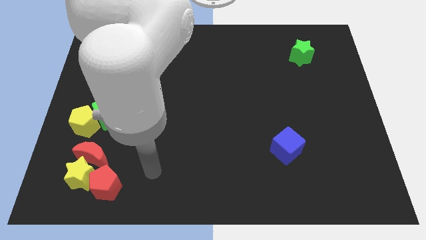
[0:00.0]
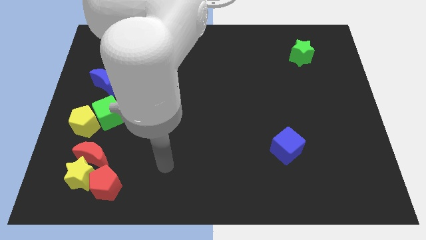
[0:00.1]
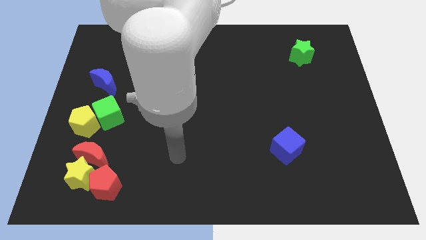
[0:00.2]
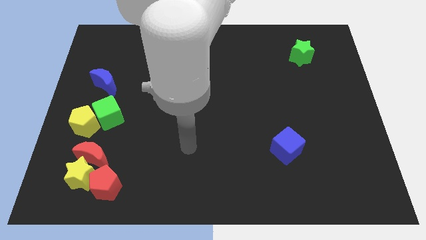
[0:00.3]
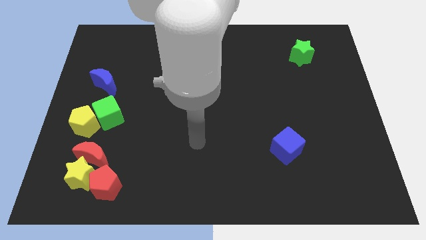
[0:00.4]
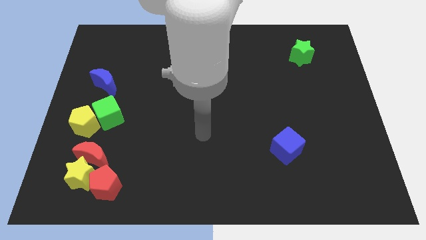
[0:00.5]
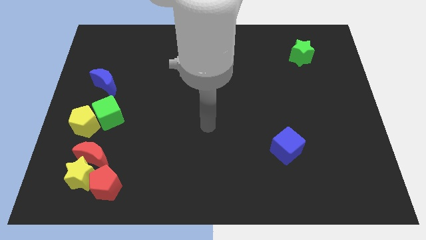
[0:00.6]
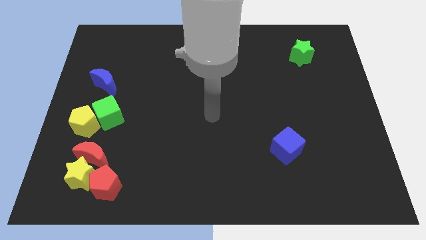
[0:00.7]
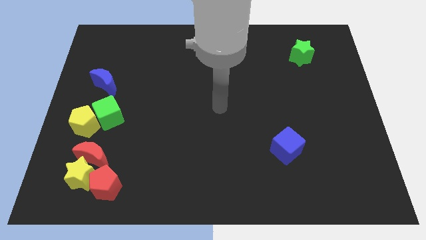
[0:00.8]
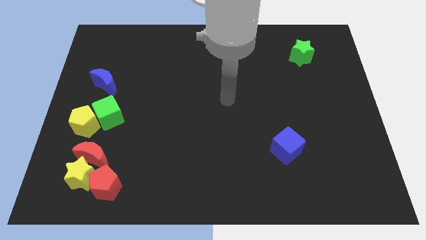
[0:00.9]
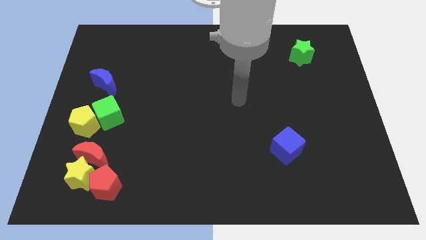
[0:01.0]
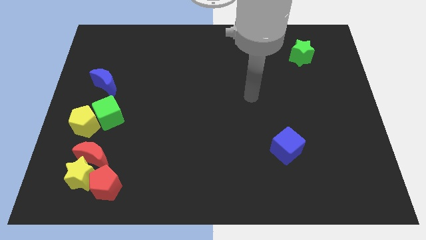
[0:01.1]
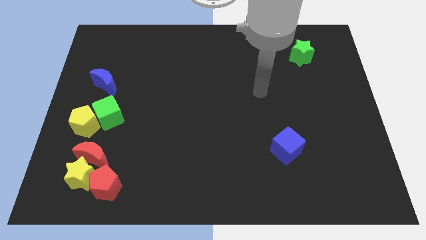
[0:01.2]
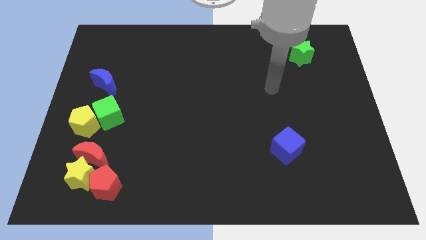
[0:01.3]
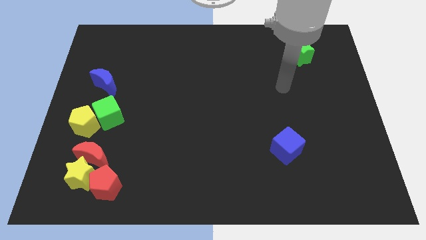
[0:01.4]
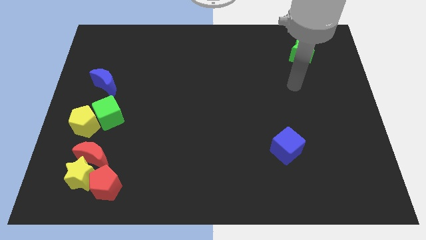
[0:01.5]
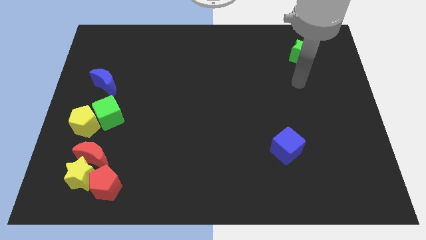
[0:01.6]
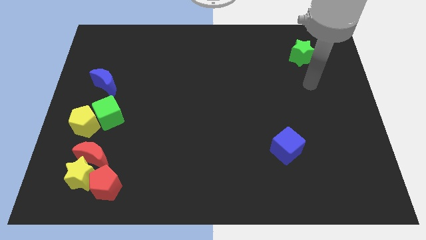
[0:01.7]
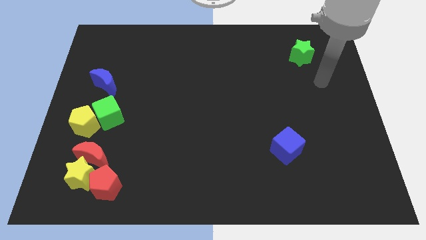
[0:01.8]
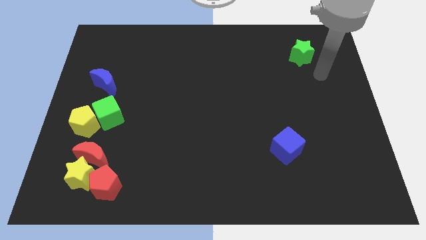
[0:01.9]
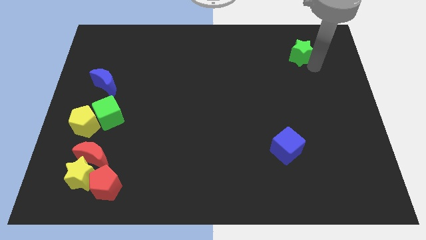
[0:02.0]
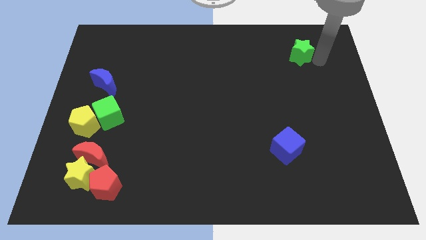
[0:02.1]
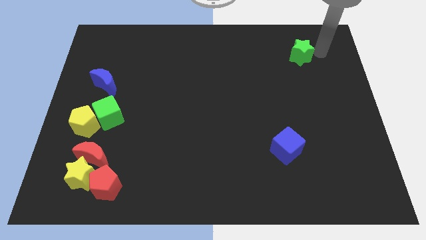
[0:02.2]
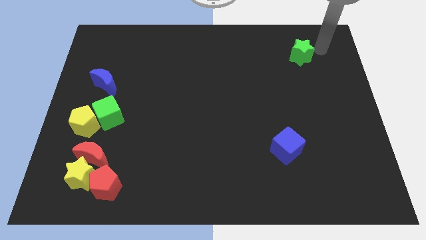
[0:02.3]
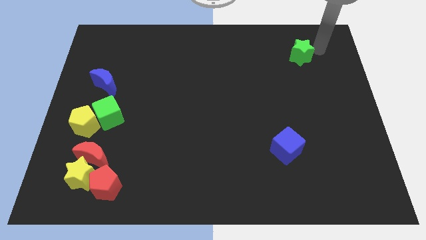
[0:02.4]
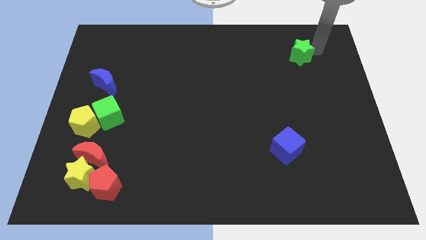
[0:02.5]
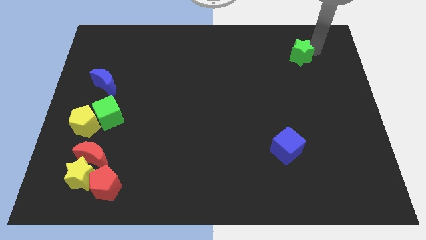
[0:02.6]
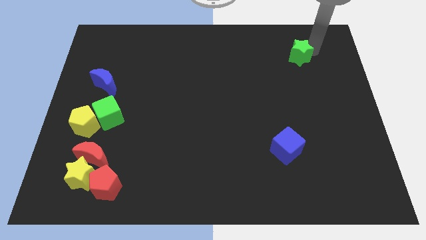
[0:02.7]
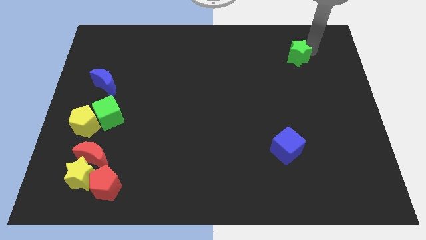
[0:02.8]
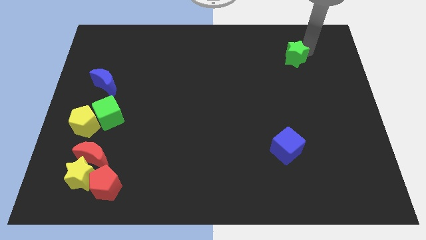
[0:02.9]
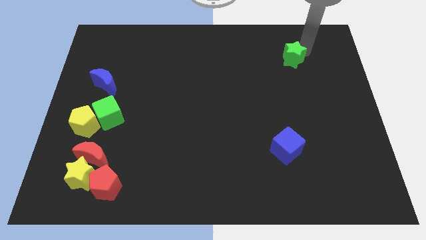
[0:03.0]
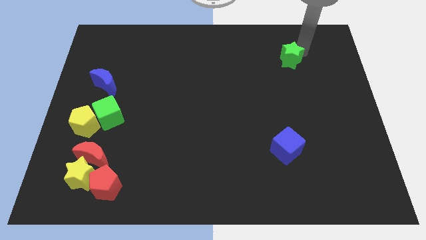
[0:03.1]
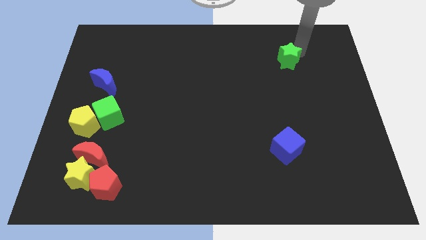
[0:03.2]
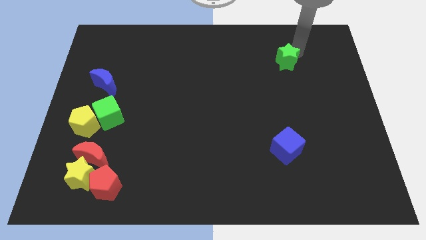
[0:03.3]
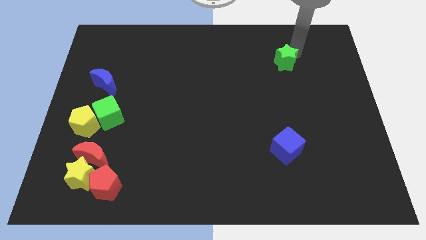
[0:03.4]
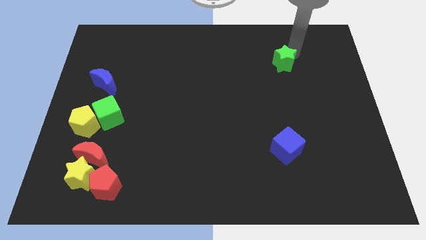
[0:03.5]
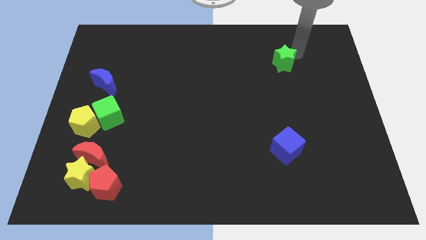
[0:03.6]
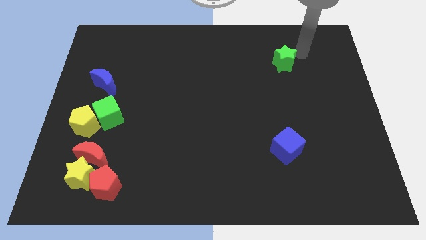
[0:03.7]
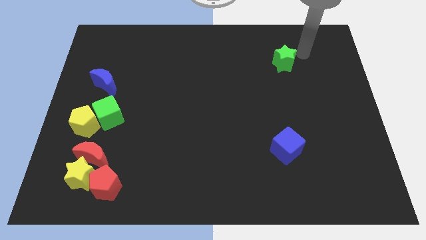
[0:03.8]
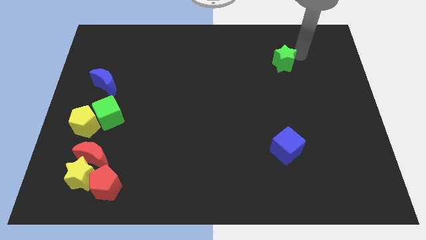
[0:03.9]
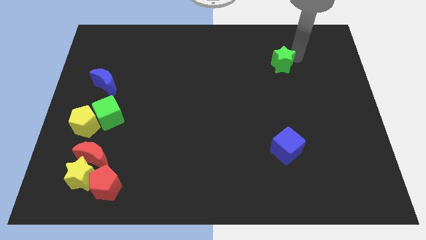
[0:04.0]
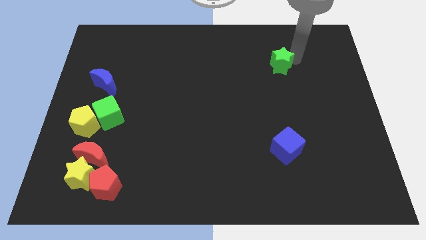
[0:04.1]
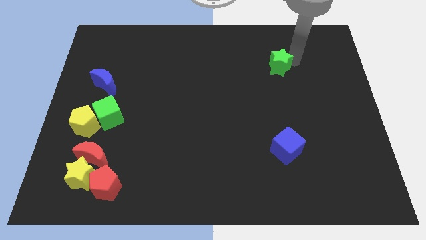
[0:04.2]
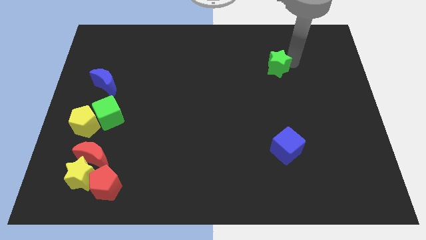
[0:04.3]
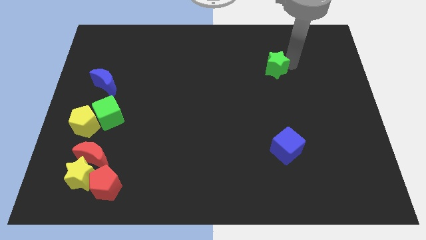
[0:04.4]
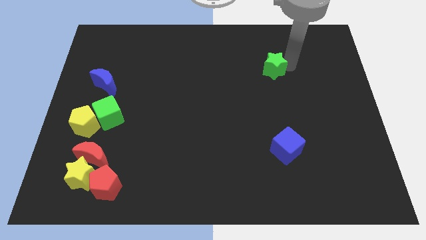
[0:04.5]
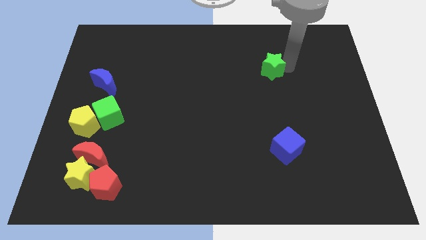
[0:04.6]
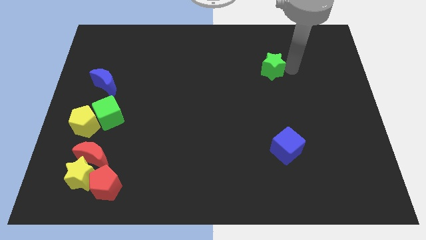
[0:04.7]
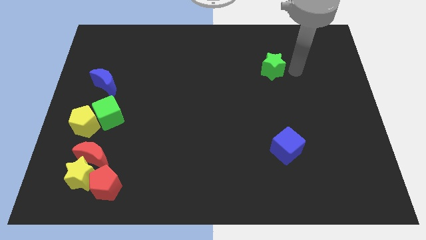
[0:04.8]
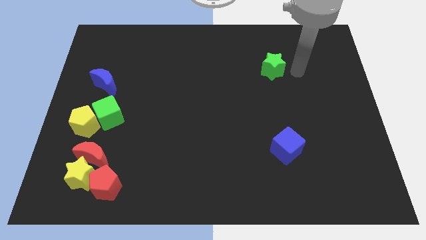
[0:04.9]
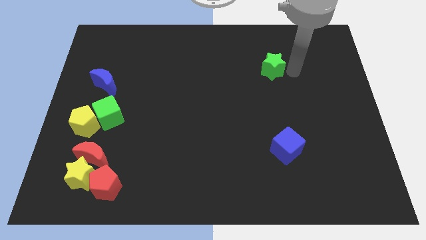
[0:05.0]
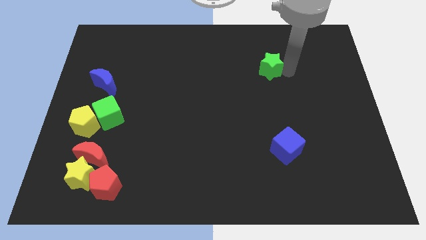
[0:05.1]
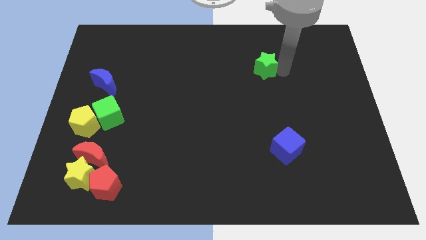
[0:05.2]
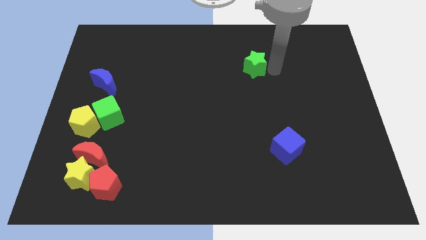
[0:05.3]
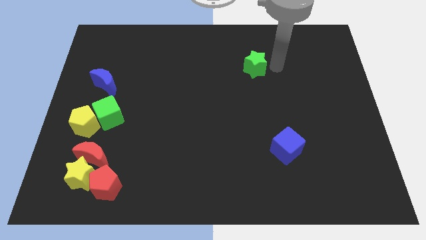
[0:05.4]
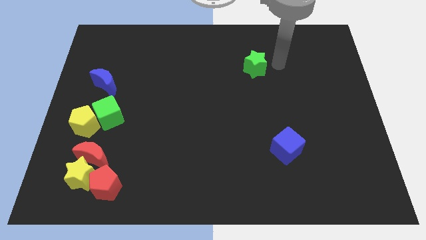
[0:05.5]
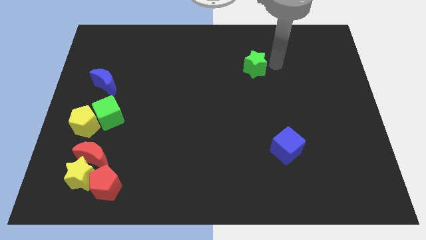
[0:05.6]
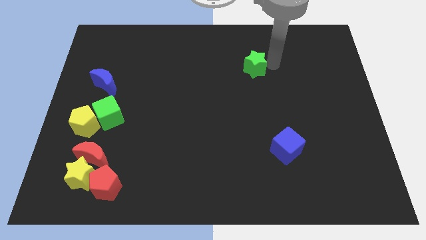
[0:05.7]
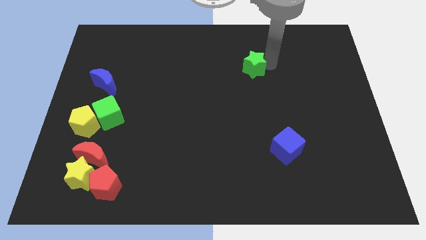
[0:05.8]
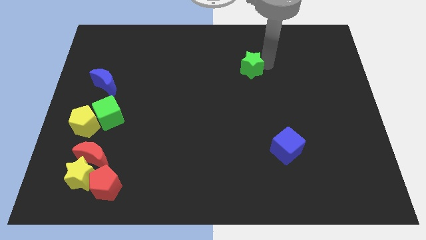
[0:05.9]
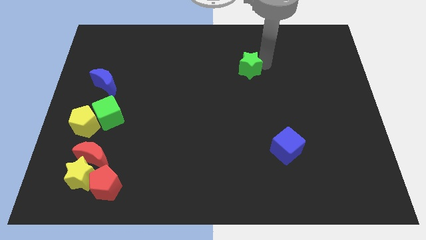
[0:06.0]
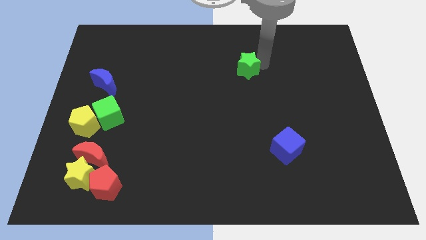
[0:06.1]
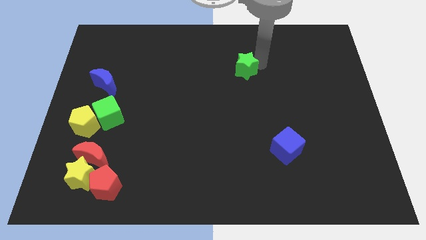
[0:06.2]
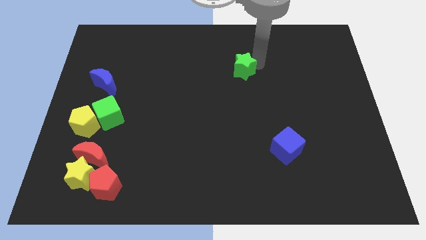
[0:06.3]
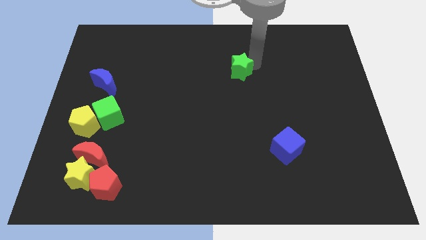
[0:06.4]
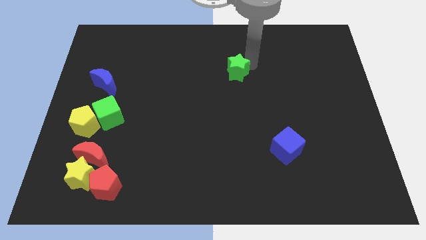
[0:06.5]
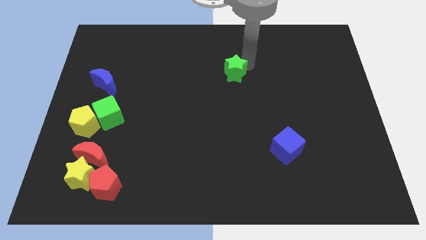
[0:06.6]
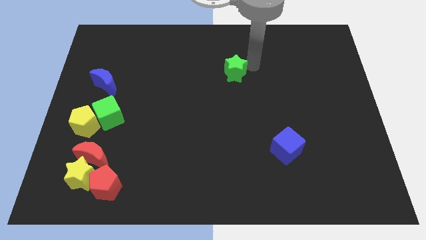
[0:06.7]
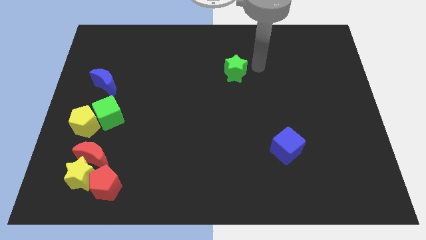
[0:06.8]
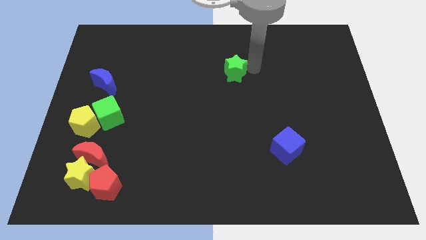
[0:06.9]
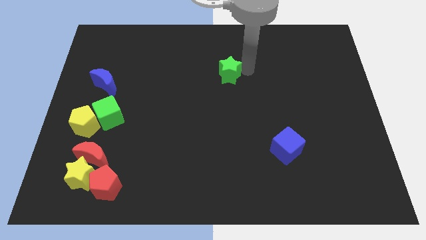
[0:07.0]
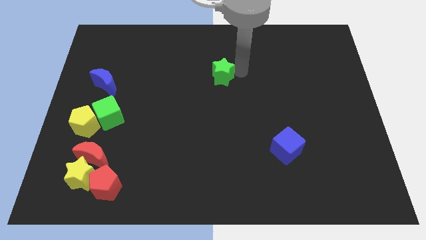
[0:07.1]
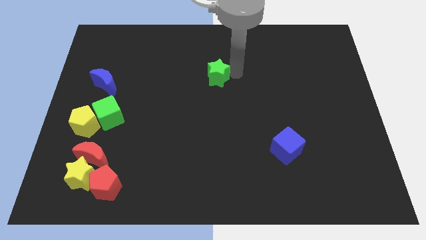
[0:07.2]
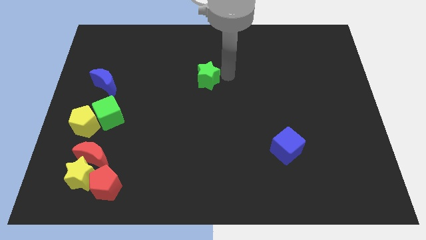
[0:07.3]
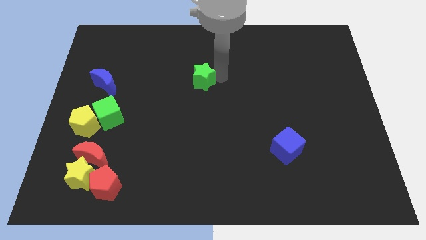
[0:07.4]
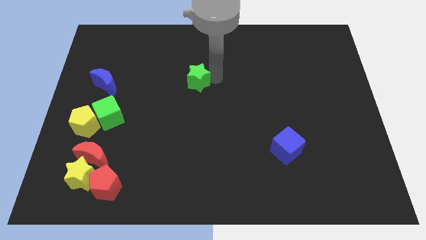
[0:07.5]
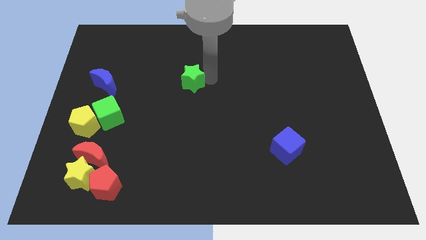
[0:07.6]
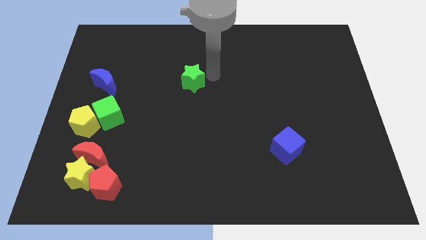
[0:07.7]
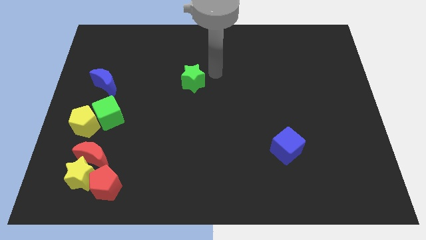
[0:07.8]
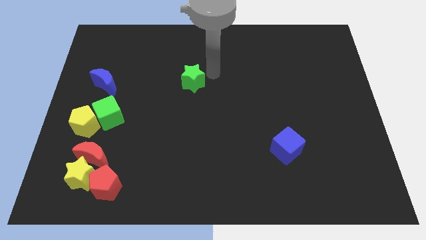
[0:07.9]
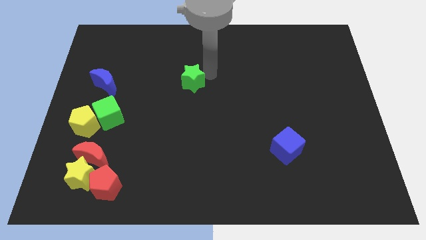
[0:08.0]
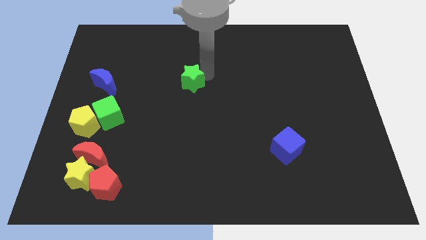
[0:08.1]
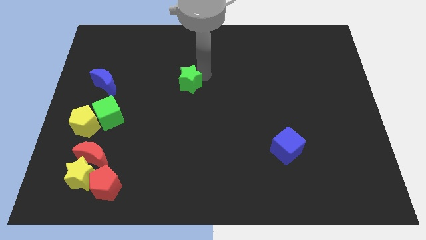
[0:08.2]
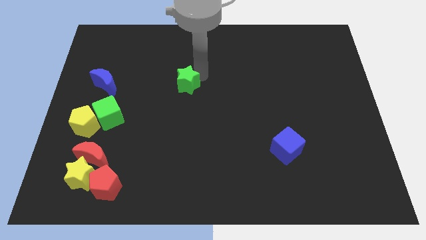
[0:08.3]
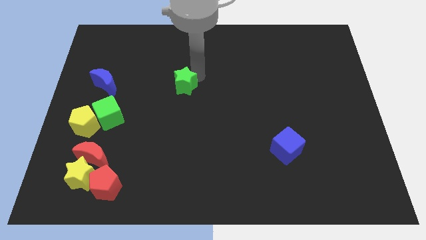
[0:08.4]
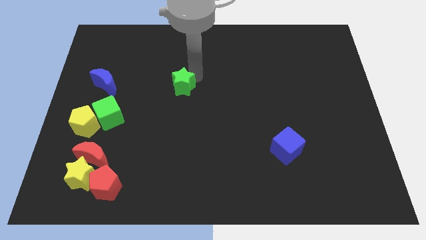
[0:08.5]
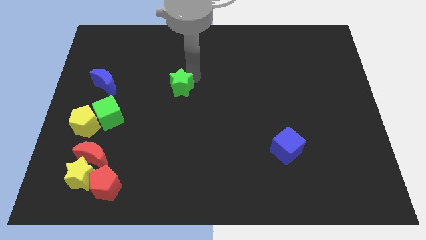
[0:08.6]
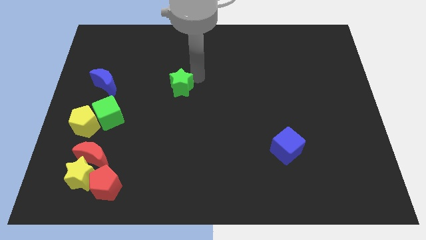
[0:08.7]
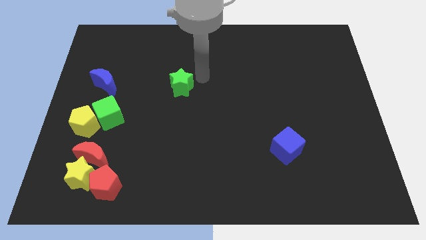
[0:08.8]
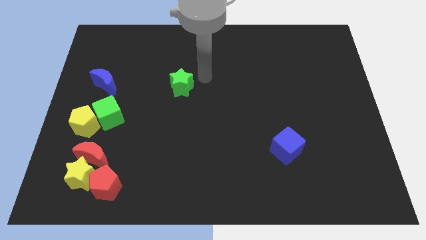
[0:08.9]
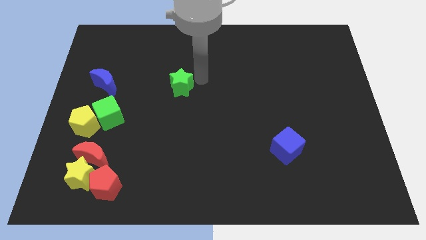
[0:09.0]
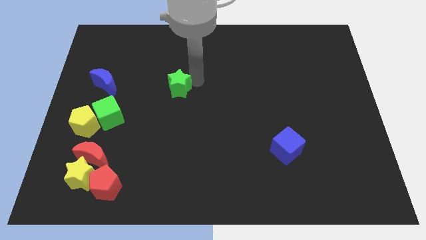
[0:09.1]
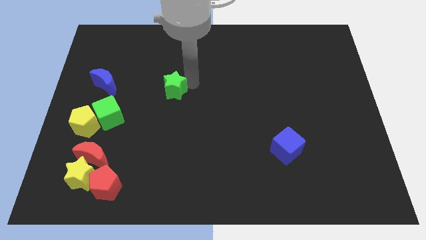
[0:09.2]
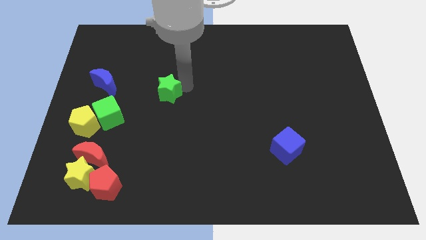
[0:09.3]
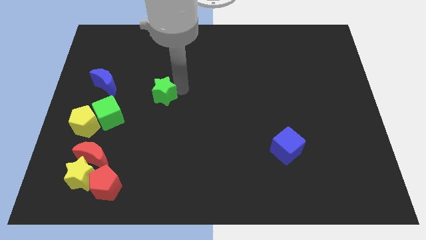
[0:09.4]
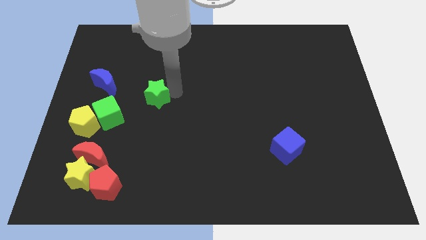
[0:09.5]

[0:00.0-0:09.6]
push the green star to the top right side of the green cube
